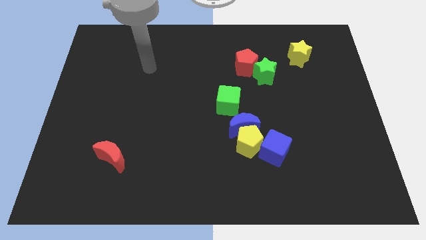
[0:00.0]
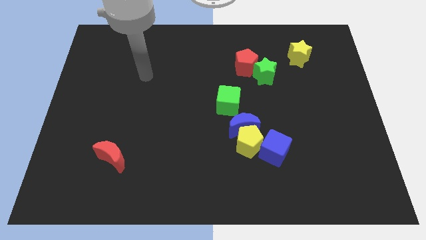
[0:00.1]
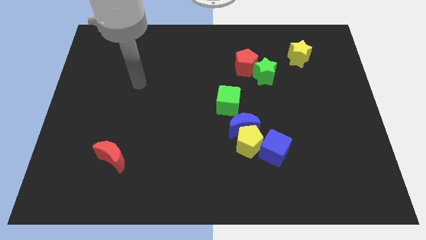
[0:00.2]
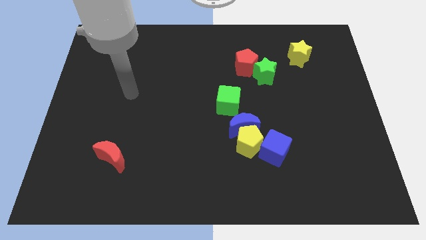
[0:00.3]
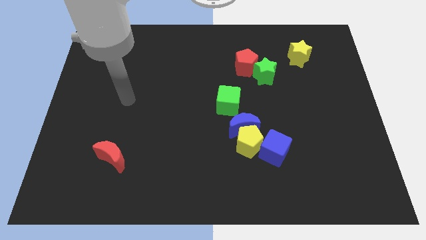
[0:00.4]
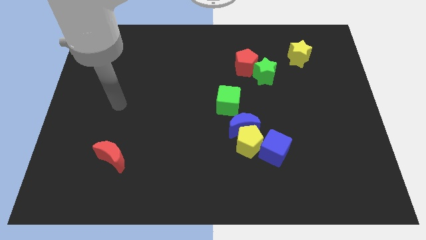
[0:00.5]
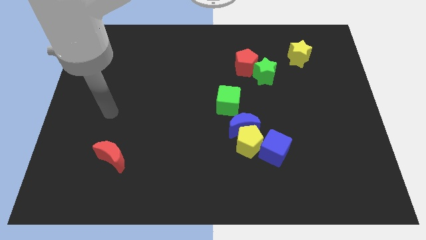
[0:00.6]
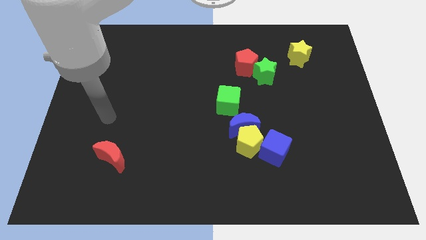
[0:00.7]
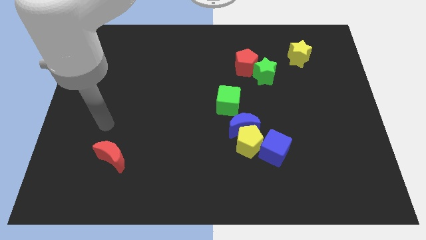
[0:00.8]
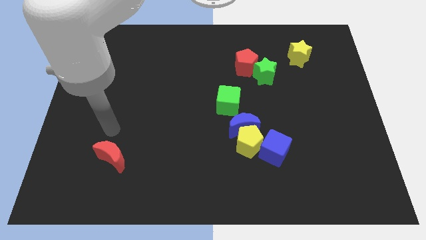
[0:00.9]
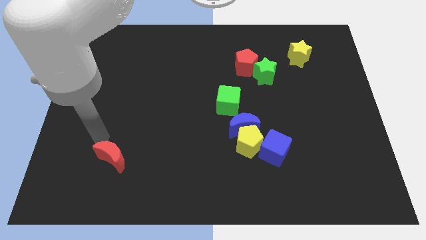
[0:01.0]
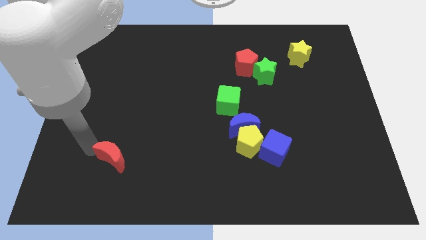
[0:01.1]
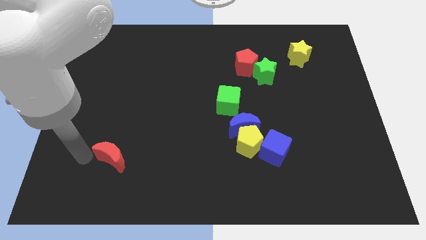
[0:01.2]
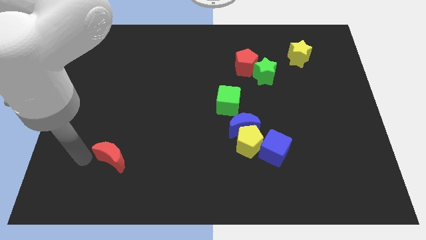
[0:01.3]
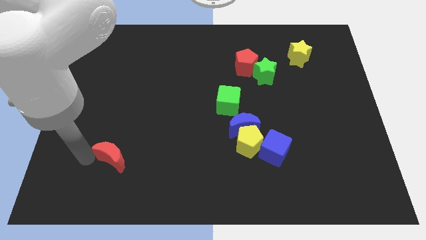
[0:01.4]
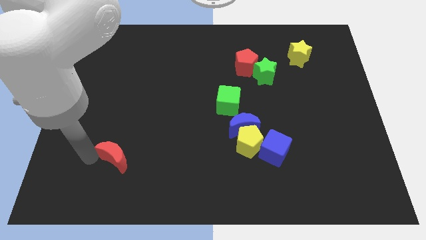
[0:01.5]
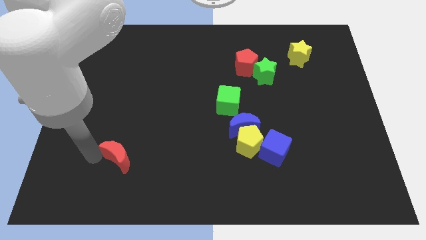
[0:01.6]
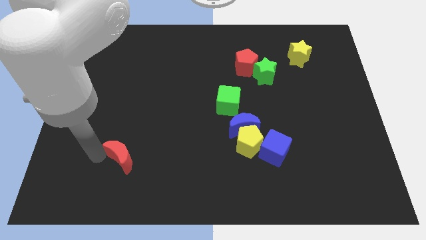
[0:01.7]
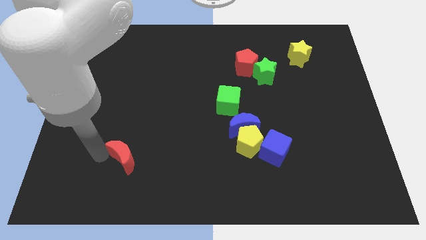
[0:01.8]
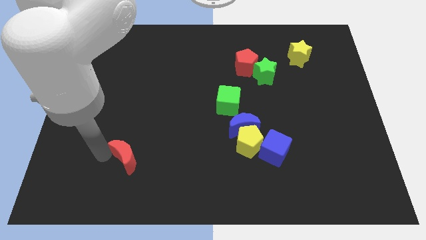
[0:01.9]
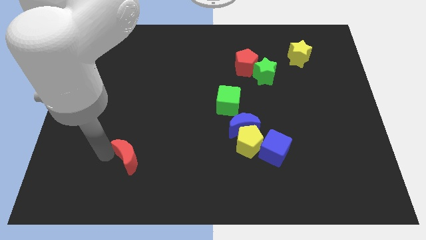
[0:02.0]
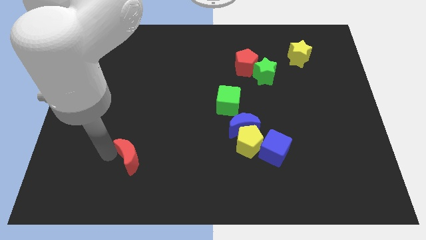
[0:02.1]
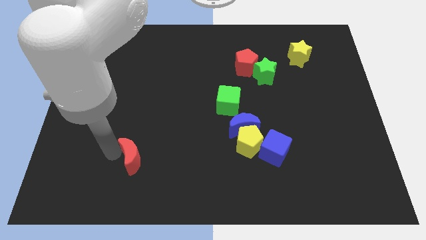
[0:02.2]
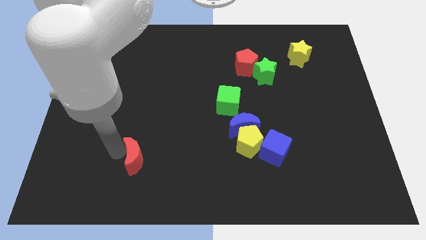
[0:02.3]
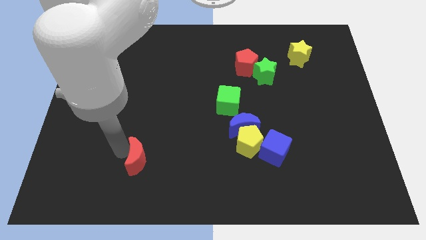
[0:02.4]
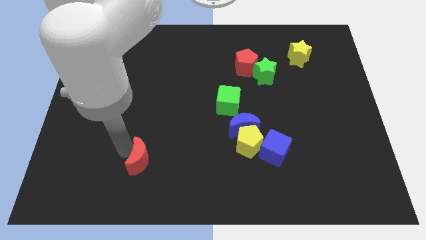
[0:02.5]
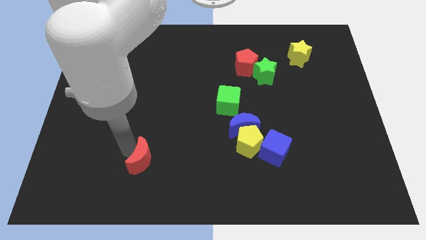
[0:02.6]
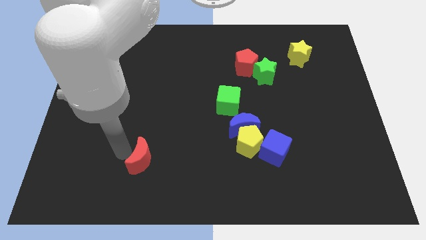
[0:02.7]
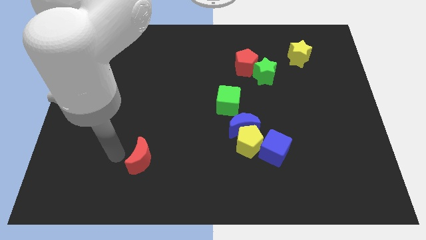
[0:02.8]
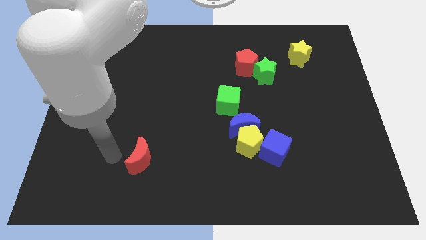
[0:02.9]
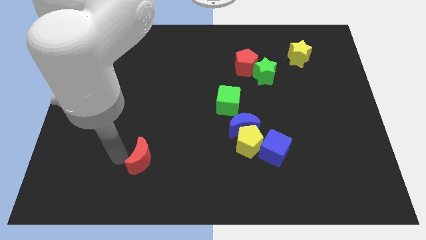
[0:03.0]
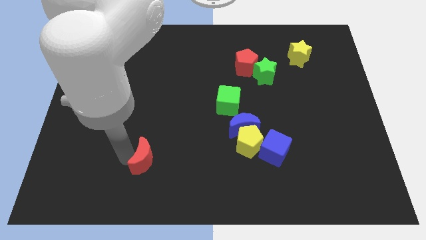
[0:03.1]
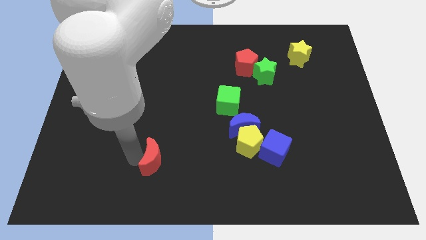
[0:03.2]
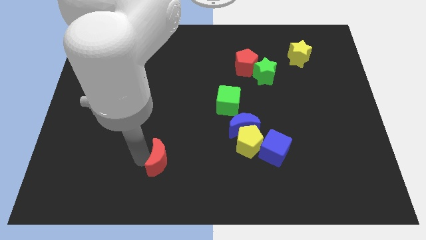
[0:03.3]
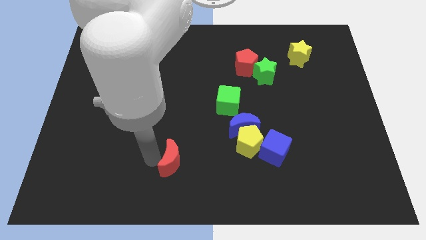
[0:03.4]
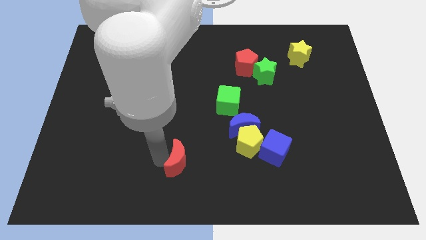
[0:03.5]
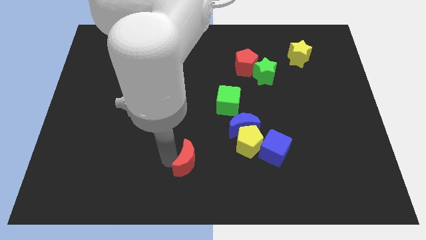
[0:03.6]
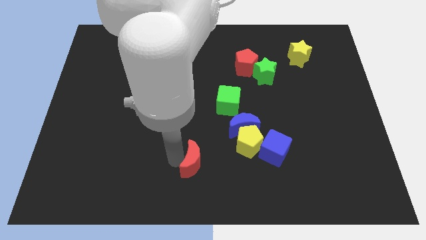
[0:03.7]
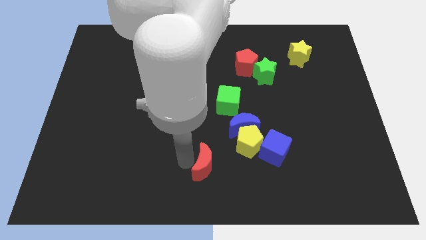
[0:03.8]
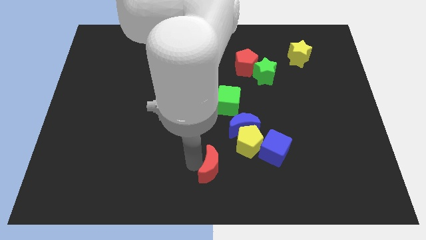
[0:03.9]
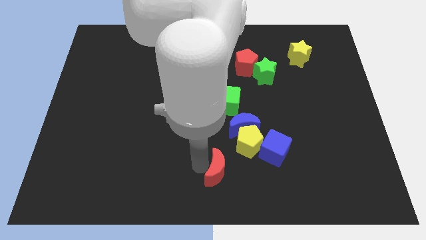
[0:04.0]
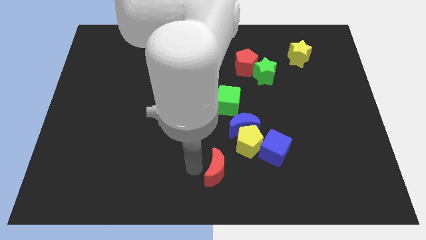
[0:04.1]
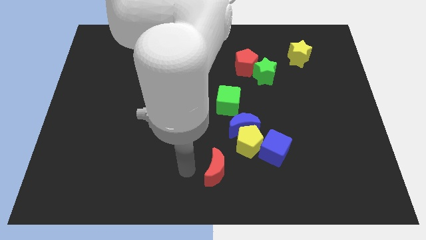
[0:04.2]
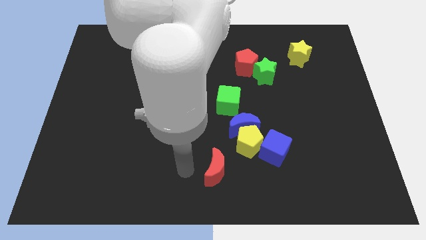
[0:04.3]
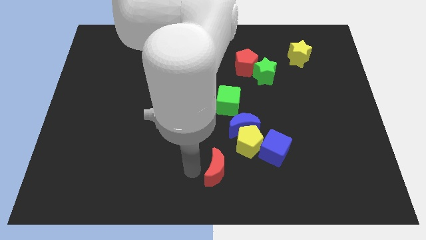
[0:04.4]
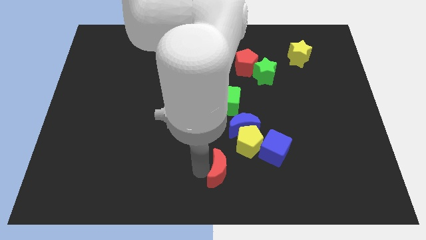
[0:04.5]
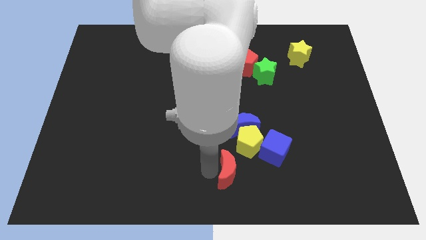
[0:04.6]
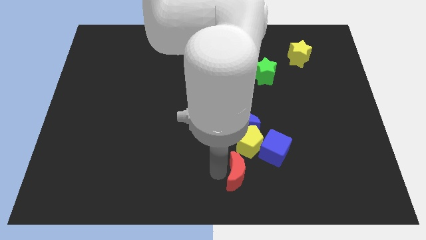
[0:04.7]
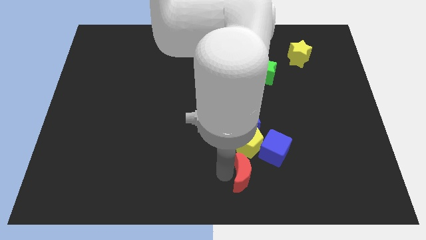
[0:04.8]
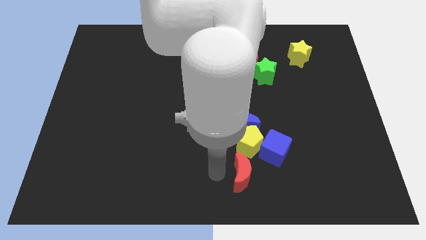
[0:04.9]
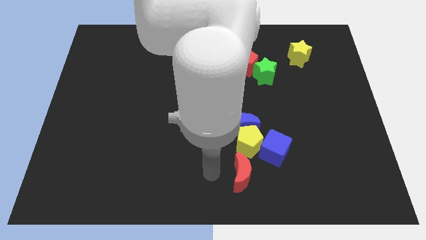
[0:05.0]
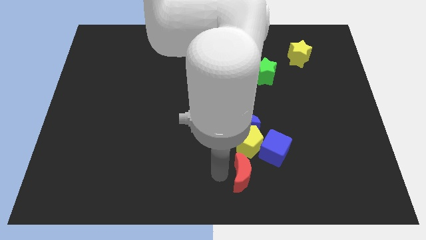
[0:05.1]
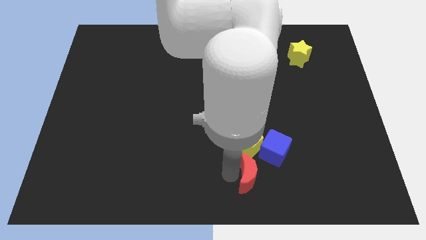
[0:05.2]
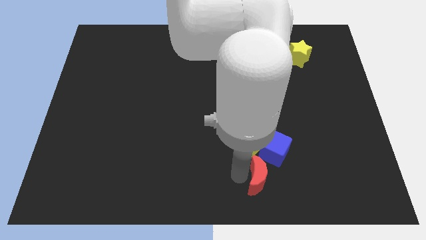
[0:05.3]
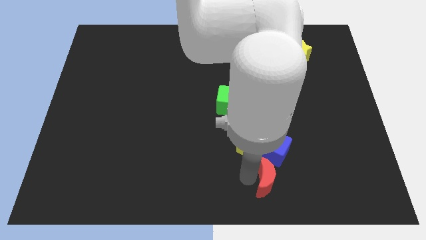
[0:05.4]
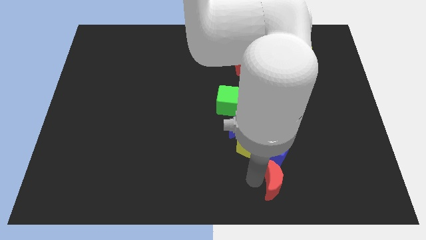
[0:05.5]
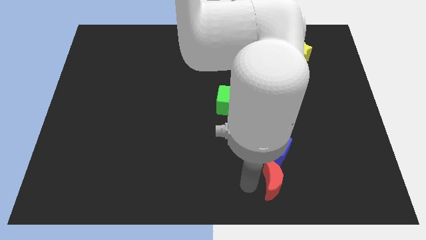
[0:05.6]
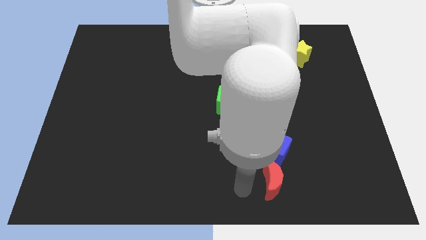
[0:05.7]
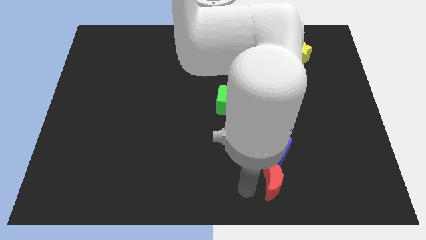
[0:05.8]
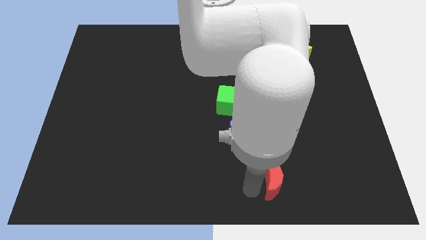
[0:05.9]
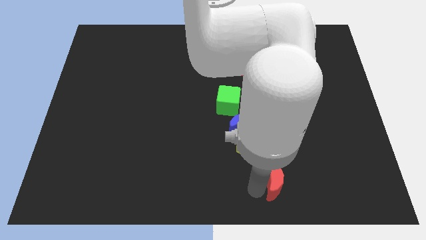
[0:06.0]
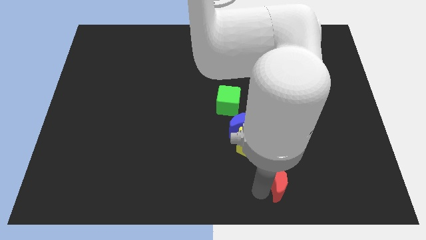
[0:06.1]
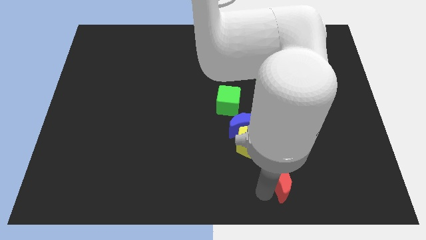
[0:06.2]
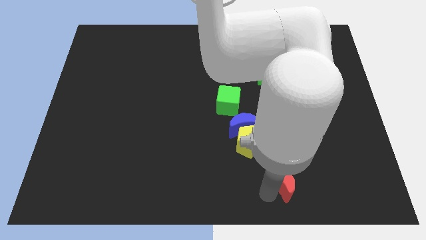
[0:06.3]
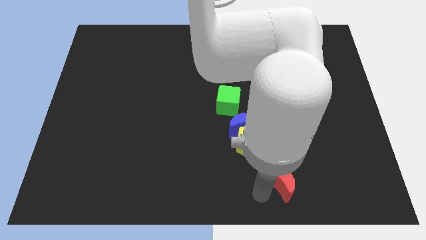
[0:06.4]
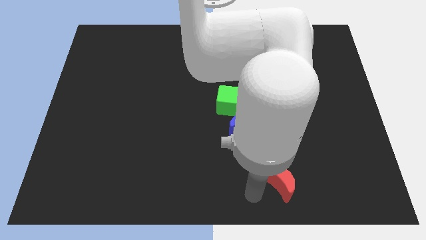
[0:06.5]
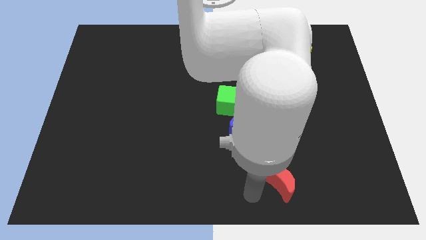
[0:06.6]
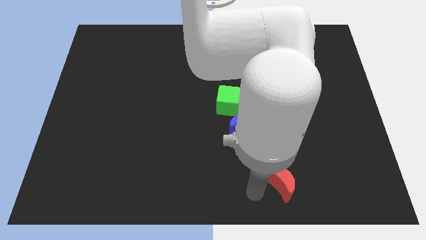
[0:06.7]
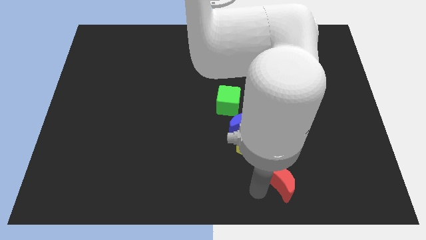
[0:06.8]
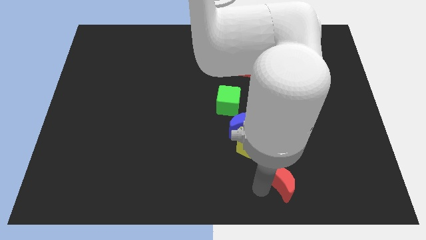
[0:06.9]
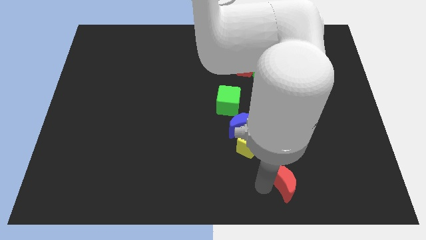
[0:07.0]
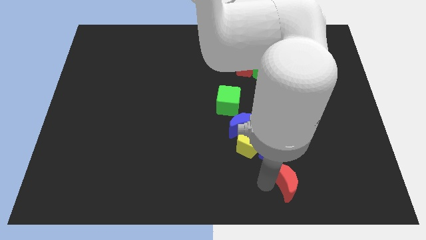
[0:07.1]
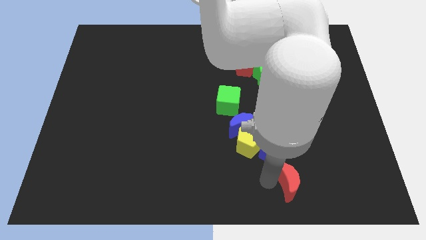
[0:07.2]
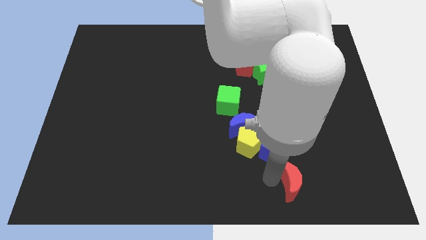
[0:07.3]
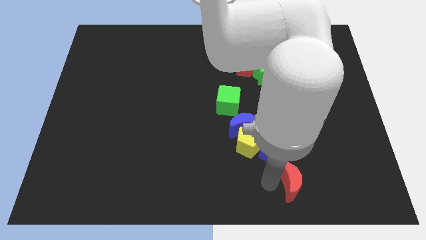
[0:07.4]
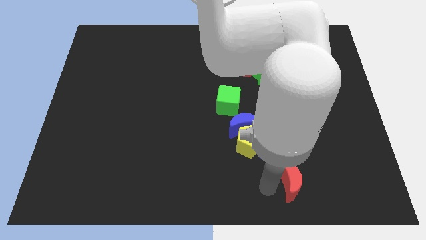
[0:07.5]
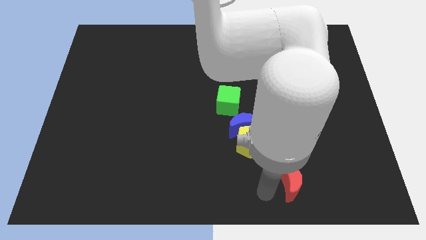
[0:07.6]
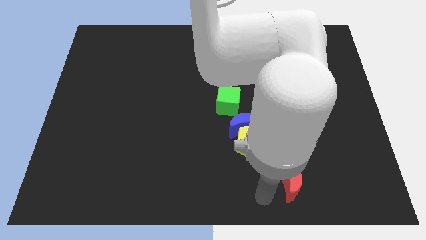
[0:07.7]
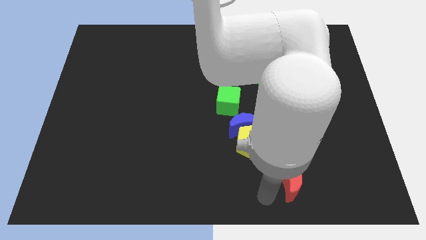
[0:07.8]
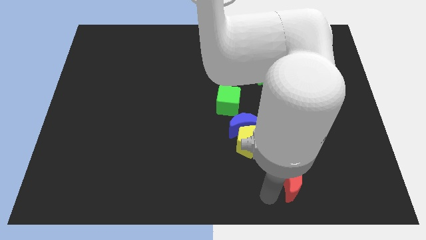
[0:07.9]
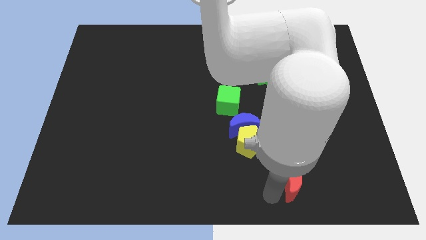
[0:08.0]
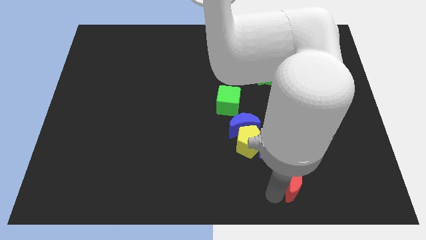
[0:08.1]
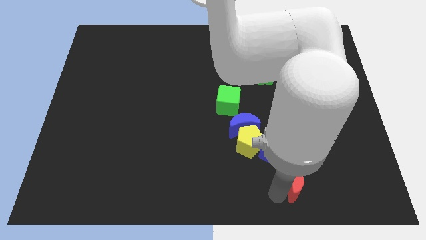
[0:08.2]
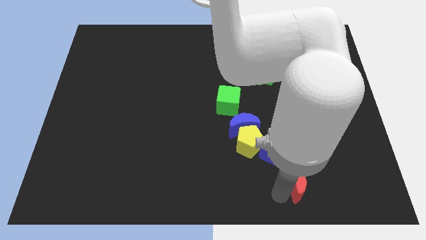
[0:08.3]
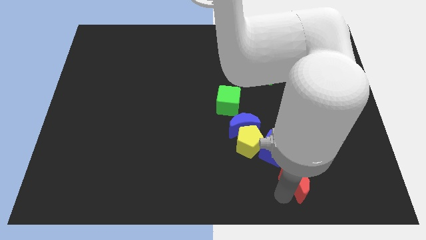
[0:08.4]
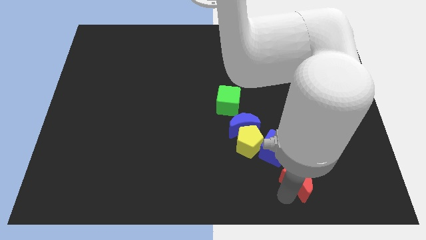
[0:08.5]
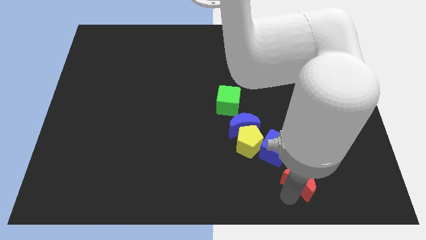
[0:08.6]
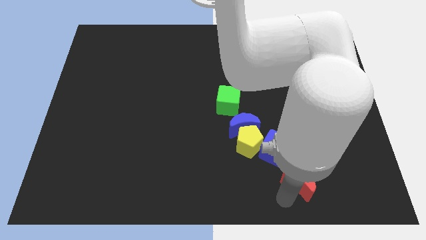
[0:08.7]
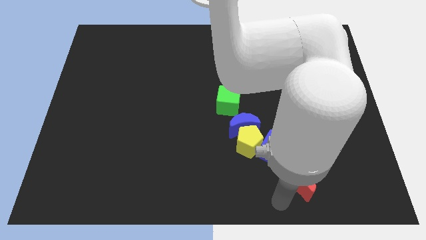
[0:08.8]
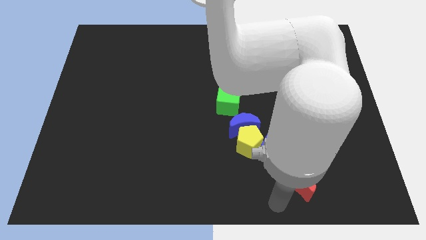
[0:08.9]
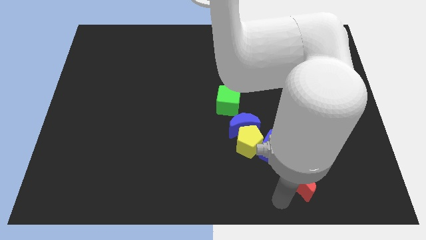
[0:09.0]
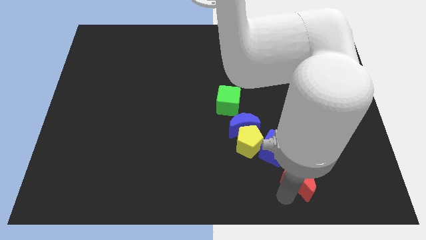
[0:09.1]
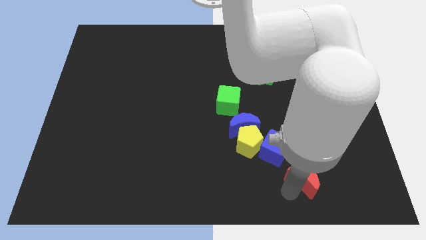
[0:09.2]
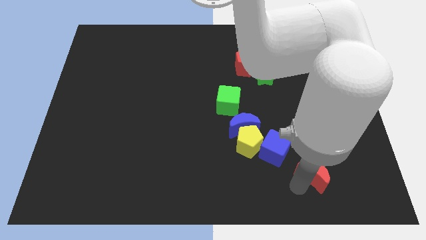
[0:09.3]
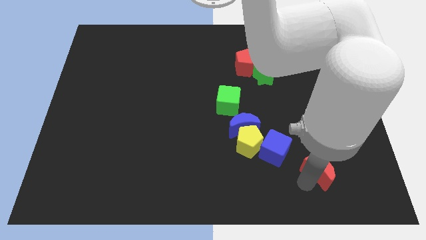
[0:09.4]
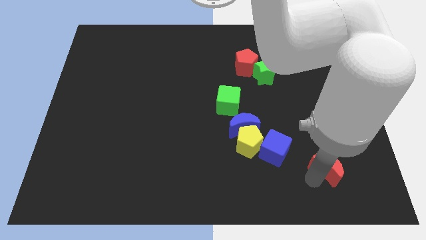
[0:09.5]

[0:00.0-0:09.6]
push the red moon to the right of the blue cube
